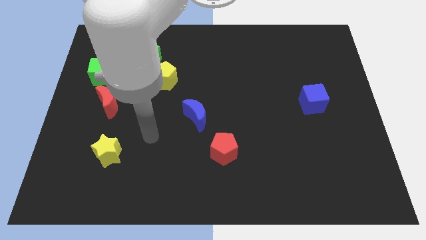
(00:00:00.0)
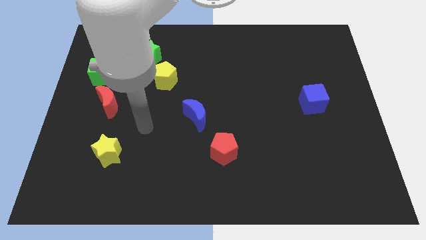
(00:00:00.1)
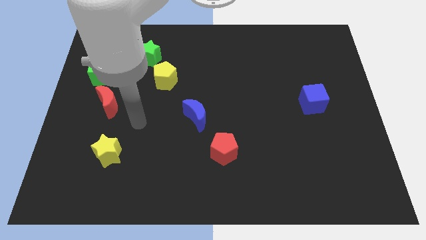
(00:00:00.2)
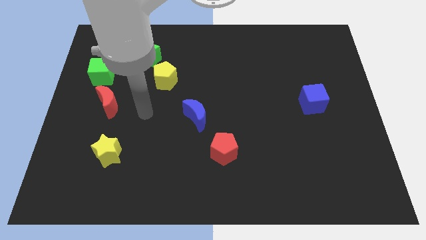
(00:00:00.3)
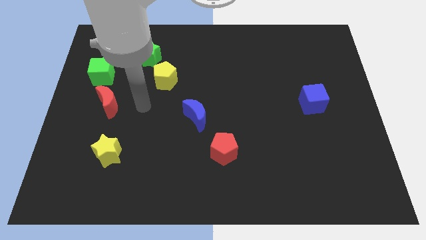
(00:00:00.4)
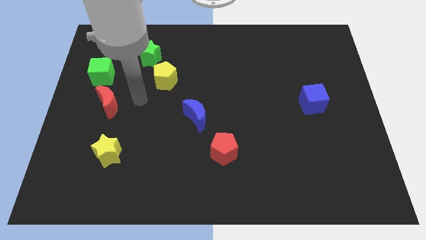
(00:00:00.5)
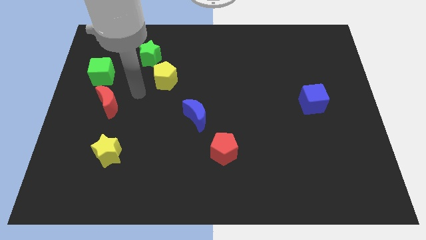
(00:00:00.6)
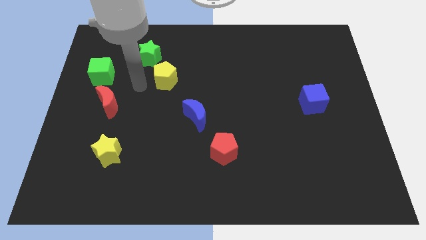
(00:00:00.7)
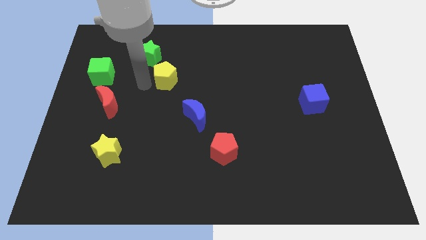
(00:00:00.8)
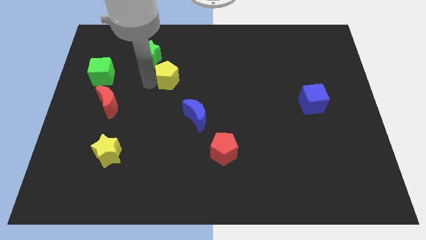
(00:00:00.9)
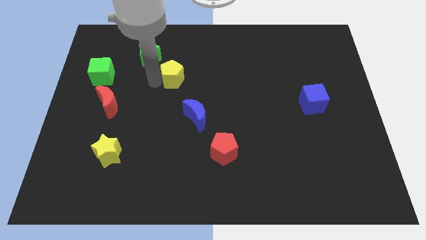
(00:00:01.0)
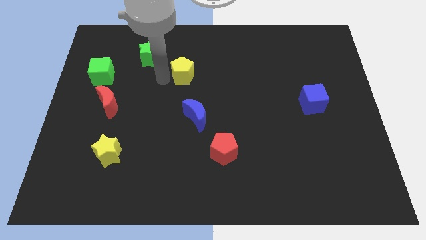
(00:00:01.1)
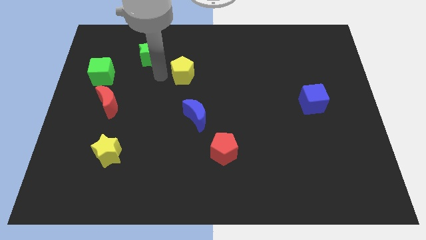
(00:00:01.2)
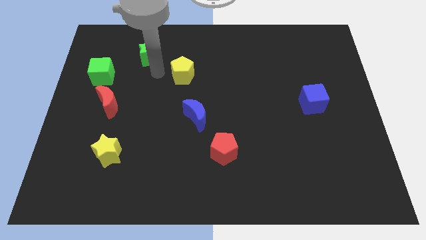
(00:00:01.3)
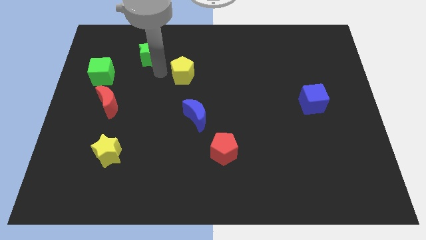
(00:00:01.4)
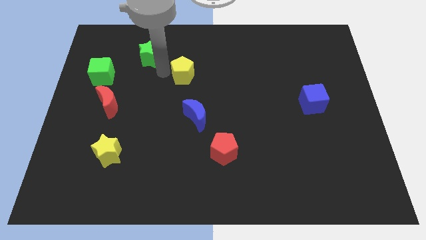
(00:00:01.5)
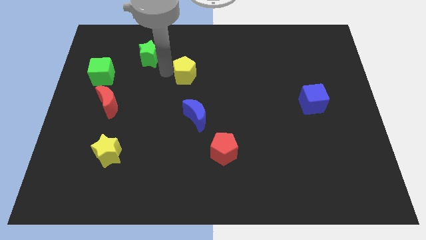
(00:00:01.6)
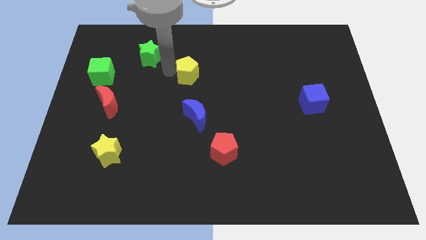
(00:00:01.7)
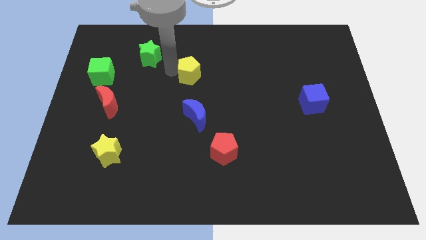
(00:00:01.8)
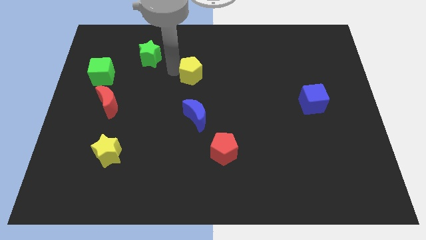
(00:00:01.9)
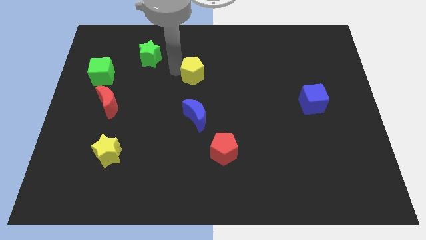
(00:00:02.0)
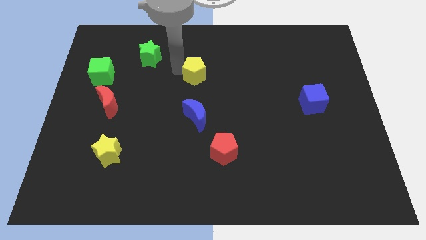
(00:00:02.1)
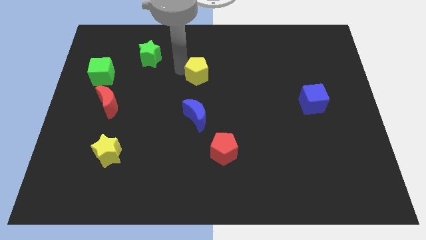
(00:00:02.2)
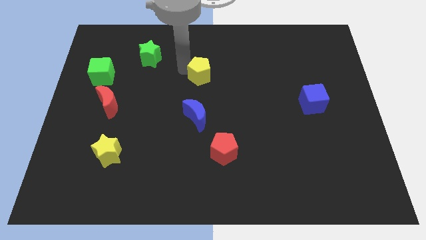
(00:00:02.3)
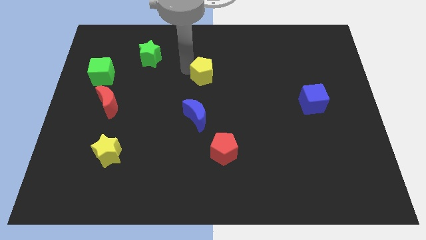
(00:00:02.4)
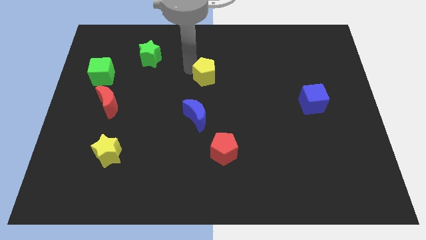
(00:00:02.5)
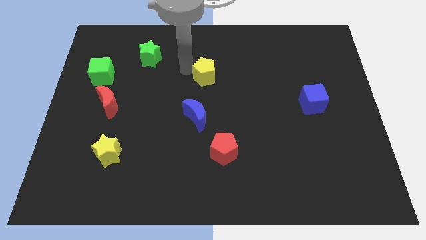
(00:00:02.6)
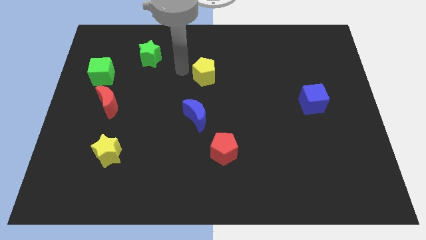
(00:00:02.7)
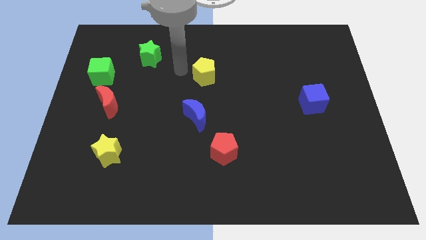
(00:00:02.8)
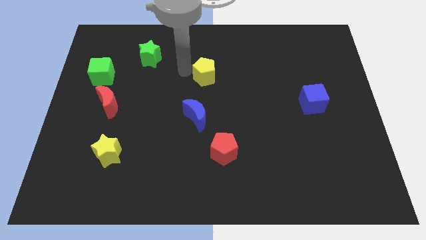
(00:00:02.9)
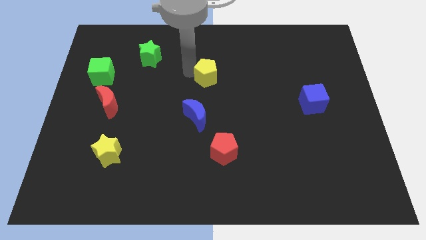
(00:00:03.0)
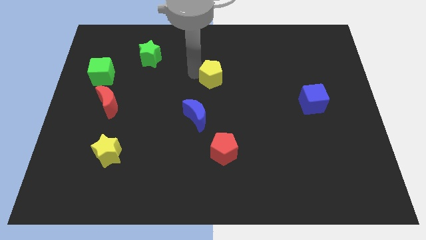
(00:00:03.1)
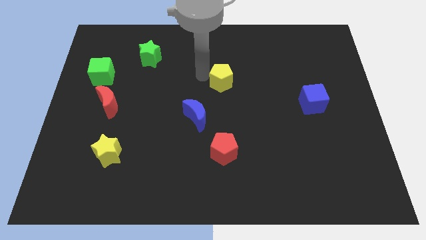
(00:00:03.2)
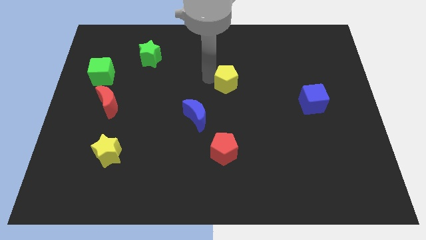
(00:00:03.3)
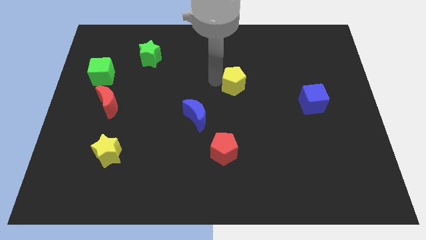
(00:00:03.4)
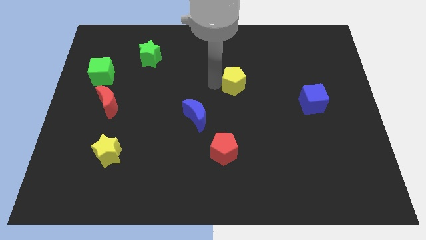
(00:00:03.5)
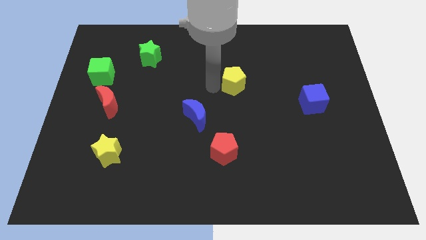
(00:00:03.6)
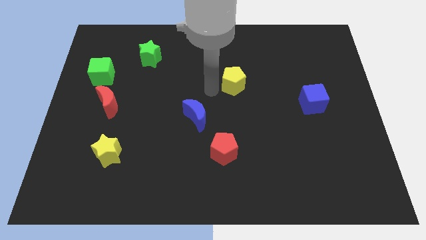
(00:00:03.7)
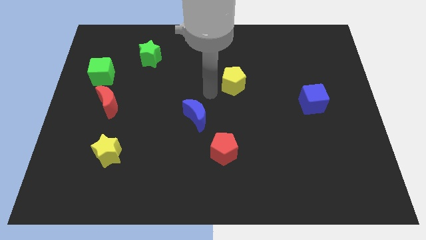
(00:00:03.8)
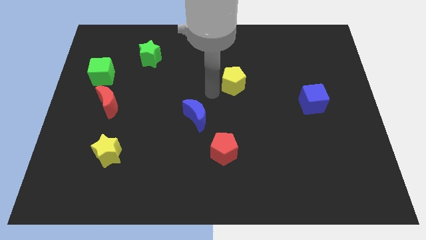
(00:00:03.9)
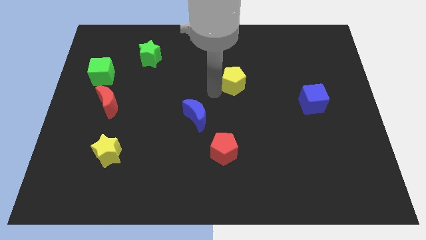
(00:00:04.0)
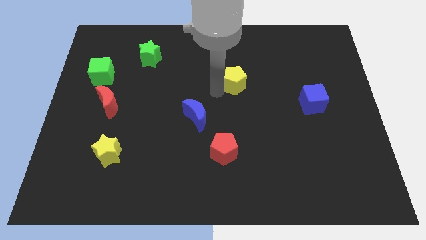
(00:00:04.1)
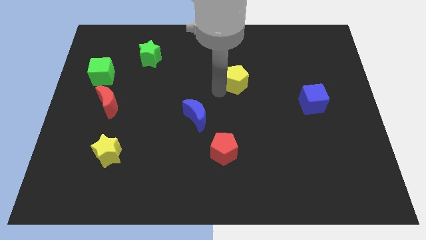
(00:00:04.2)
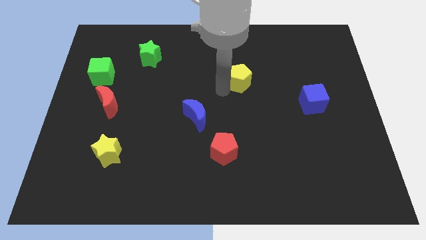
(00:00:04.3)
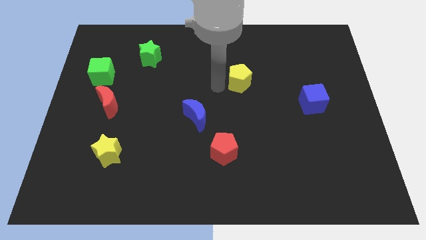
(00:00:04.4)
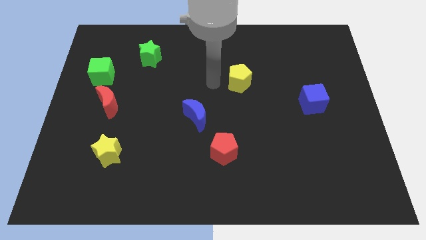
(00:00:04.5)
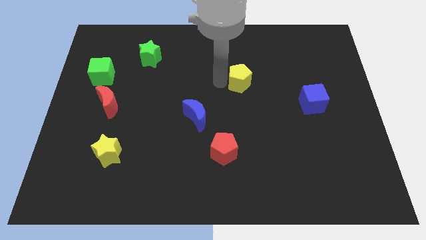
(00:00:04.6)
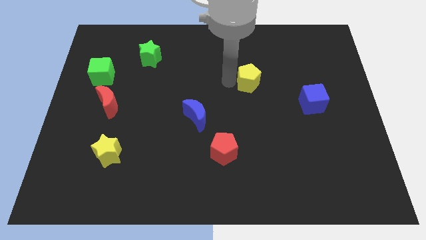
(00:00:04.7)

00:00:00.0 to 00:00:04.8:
move the yellow pentagon right

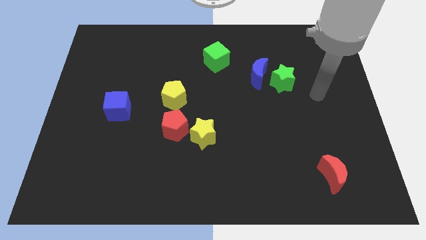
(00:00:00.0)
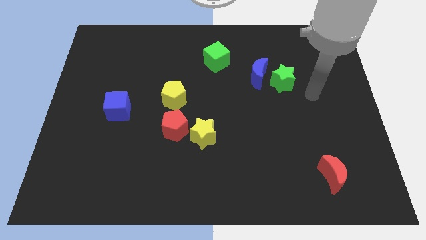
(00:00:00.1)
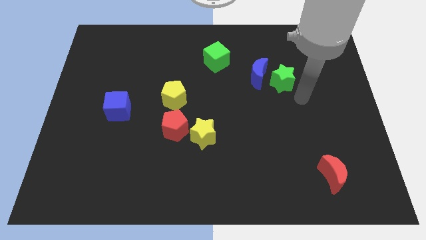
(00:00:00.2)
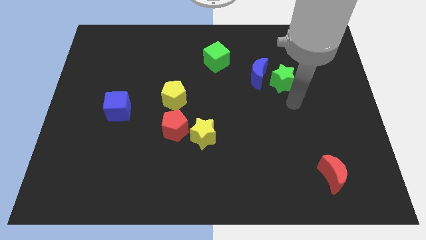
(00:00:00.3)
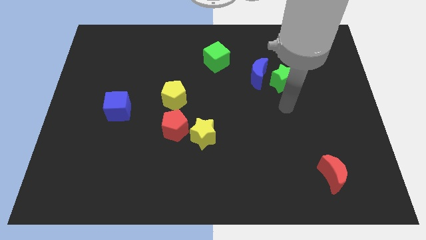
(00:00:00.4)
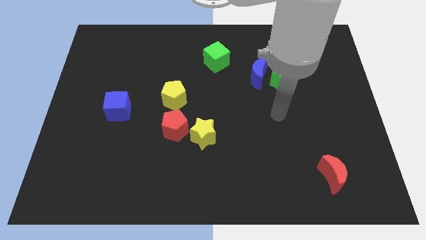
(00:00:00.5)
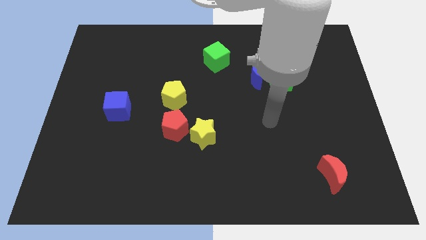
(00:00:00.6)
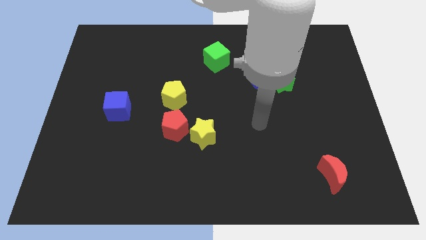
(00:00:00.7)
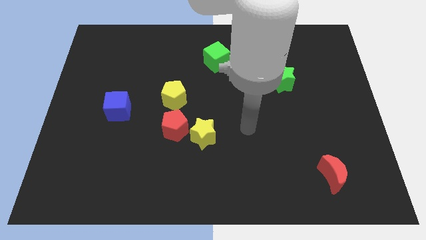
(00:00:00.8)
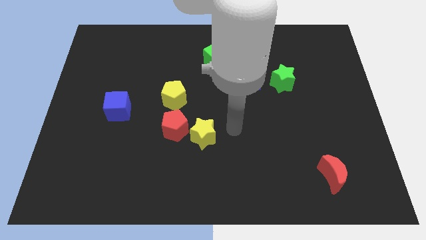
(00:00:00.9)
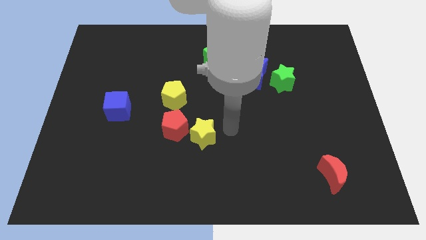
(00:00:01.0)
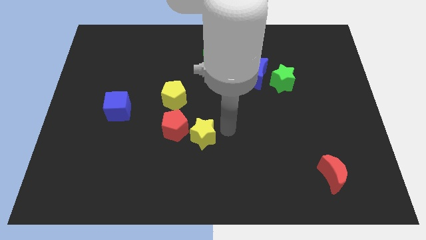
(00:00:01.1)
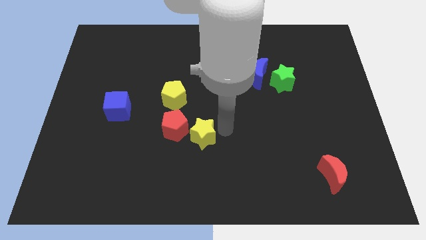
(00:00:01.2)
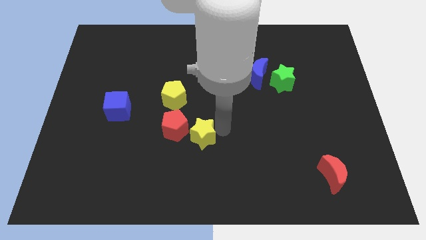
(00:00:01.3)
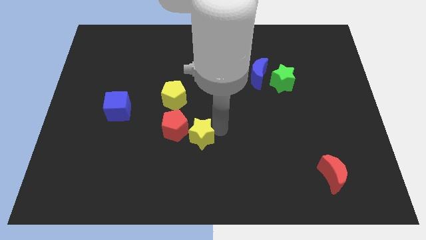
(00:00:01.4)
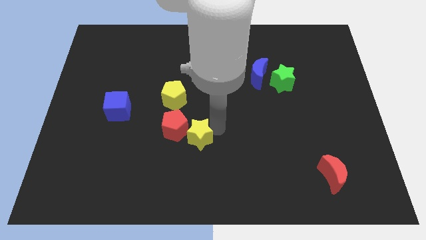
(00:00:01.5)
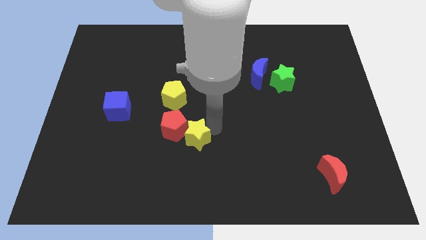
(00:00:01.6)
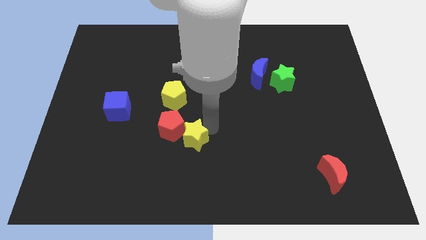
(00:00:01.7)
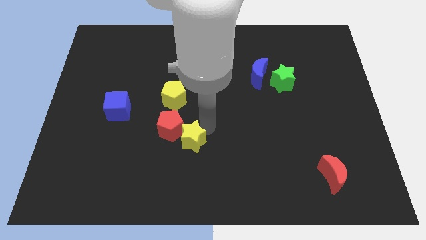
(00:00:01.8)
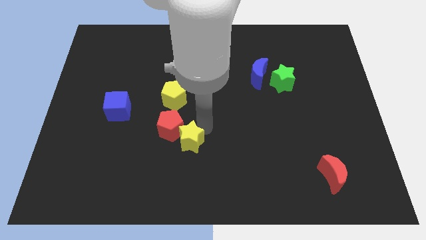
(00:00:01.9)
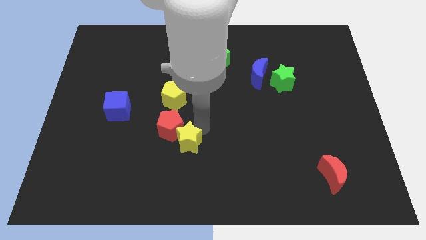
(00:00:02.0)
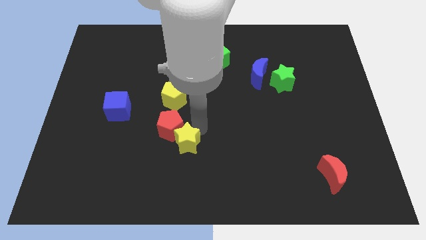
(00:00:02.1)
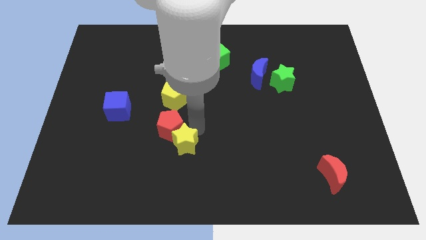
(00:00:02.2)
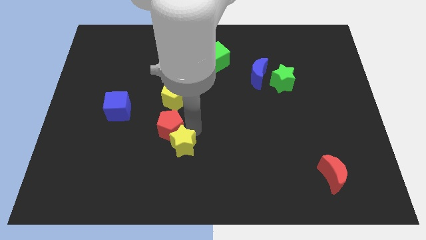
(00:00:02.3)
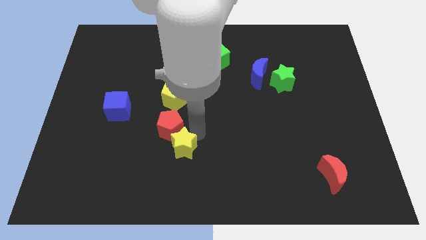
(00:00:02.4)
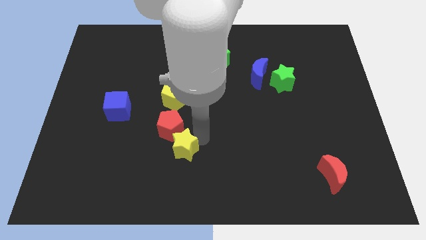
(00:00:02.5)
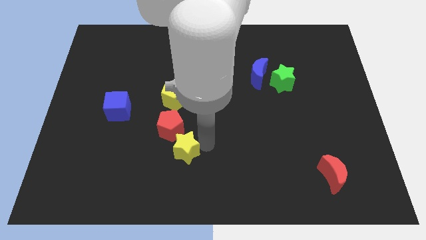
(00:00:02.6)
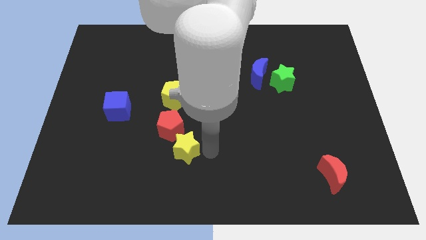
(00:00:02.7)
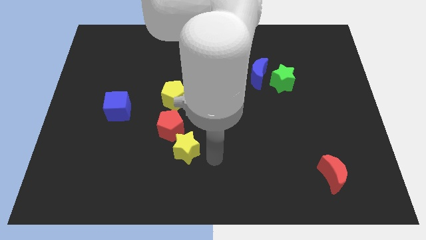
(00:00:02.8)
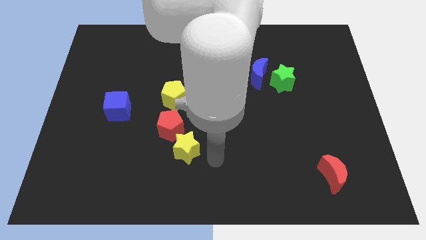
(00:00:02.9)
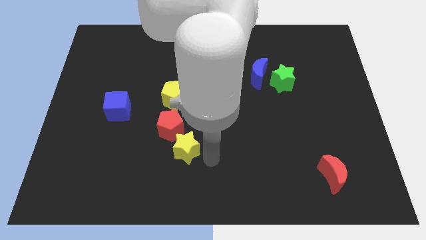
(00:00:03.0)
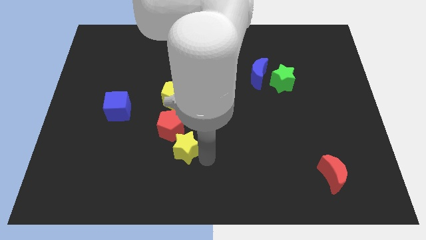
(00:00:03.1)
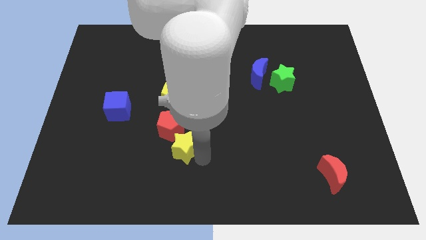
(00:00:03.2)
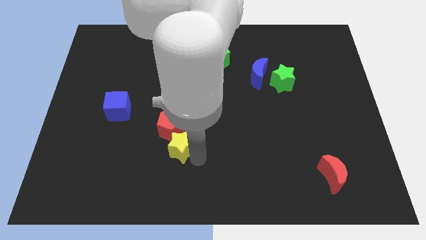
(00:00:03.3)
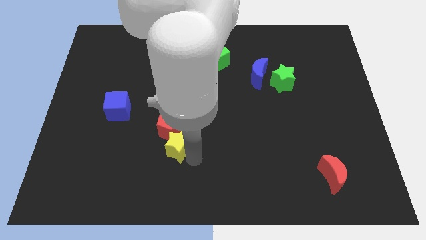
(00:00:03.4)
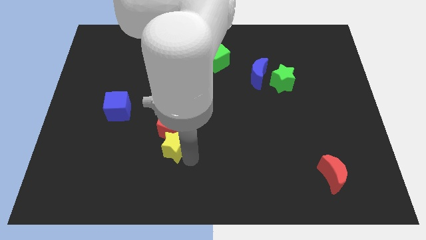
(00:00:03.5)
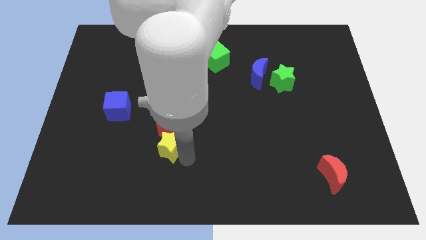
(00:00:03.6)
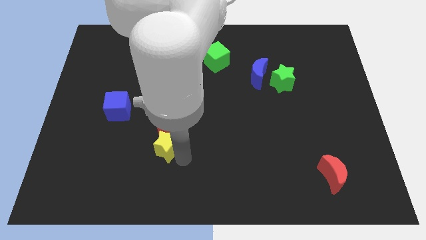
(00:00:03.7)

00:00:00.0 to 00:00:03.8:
slightly move the yellow star left
